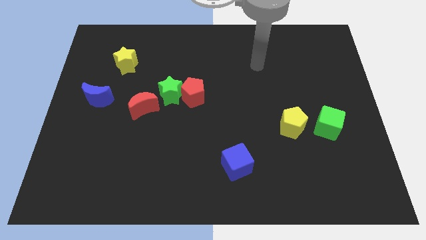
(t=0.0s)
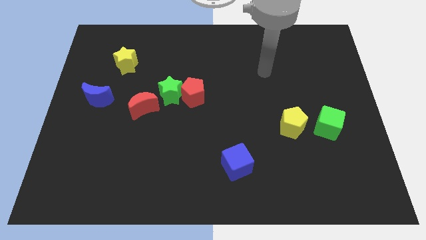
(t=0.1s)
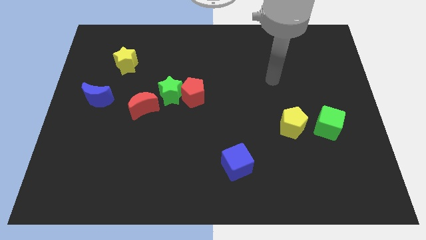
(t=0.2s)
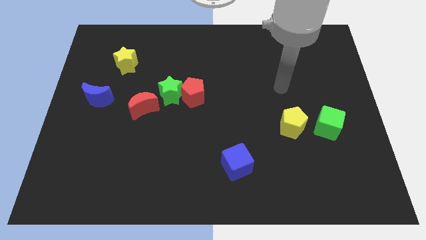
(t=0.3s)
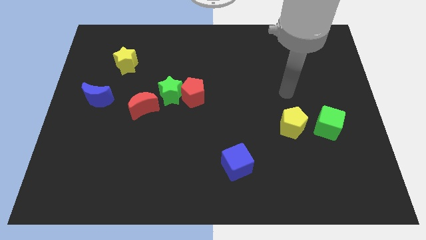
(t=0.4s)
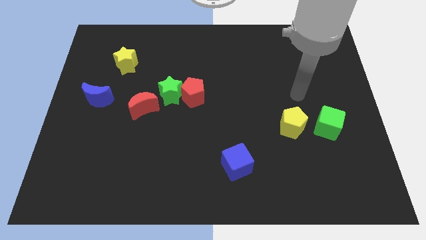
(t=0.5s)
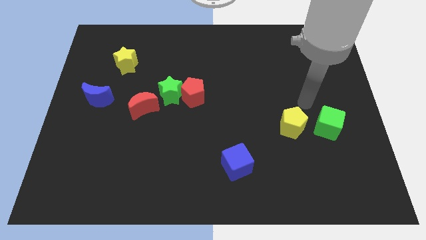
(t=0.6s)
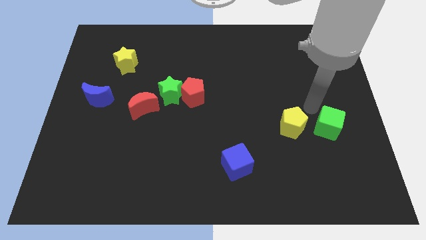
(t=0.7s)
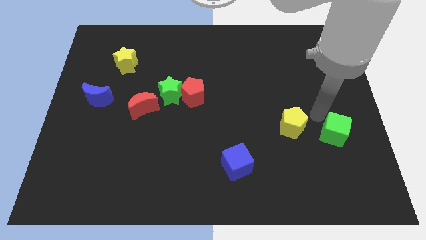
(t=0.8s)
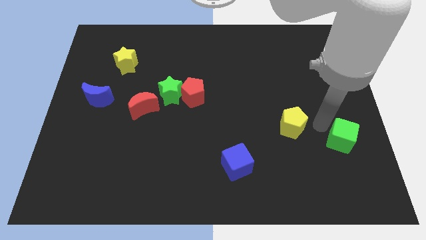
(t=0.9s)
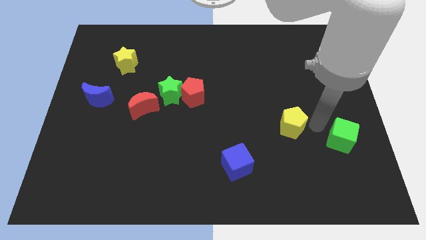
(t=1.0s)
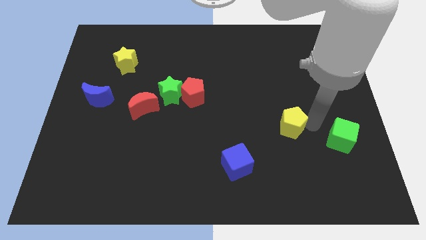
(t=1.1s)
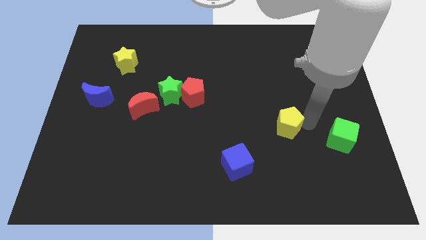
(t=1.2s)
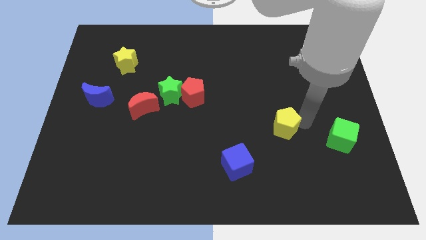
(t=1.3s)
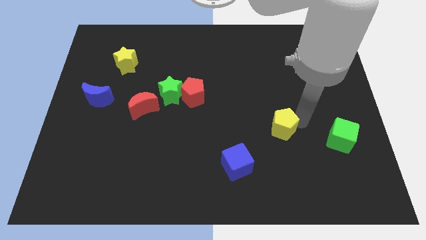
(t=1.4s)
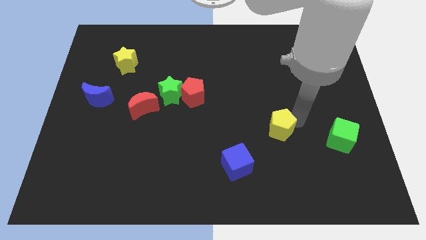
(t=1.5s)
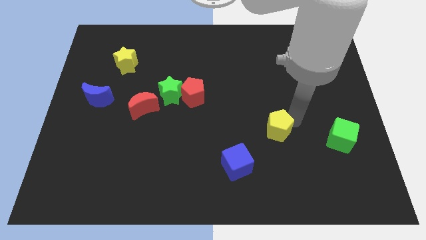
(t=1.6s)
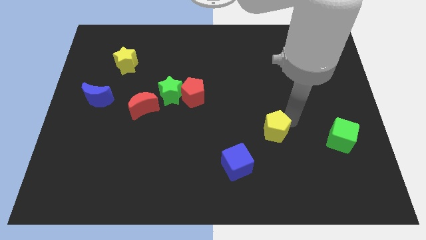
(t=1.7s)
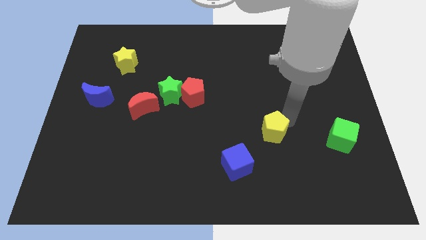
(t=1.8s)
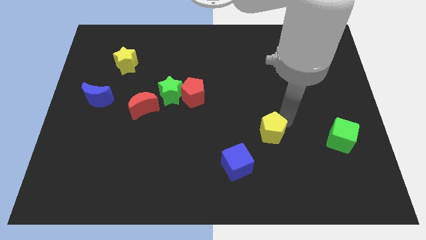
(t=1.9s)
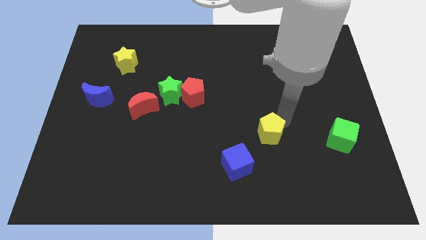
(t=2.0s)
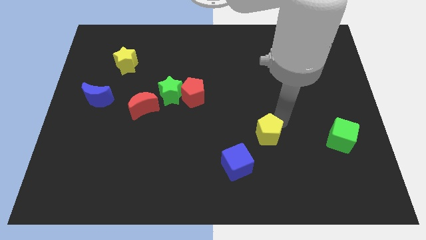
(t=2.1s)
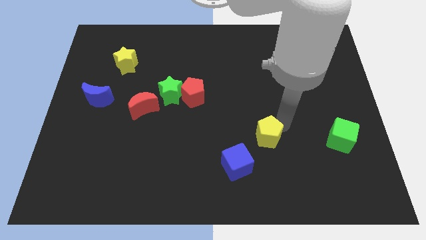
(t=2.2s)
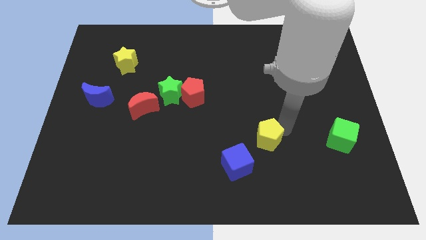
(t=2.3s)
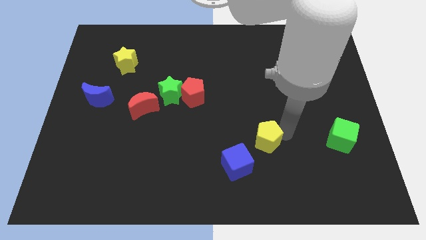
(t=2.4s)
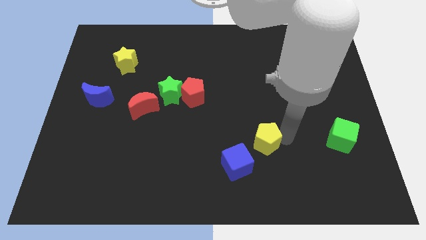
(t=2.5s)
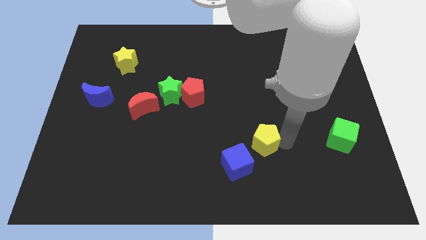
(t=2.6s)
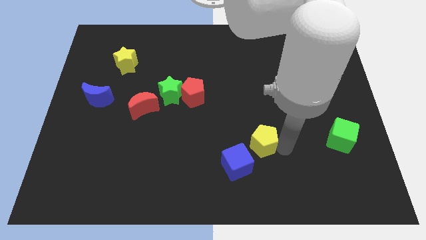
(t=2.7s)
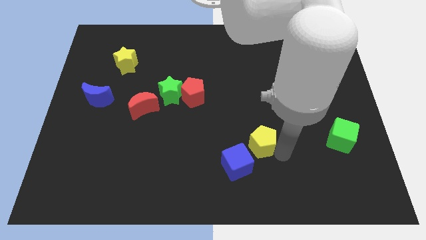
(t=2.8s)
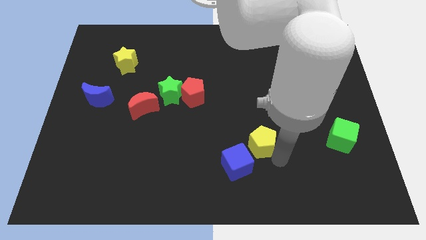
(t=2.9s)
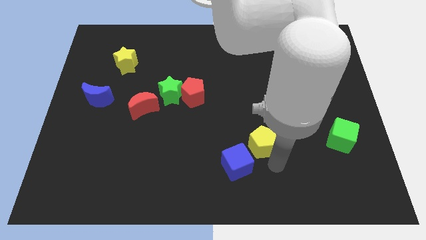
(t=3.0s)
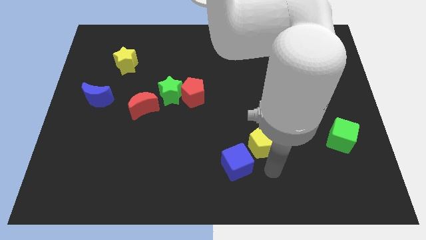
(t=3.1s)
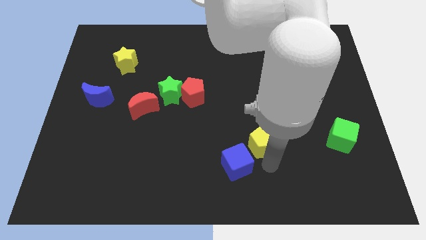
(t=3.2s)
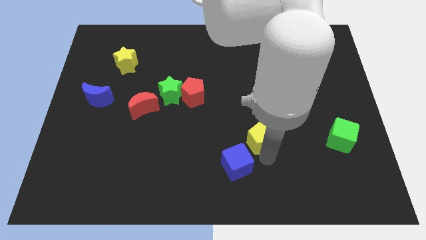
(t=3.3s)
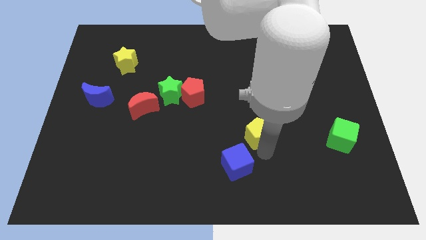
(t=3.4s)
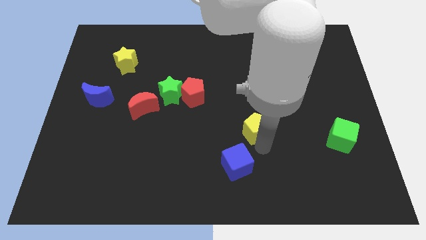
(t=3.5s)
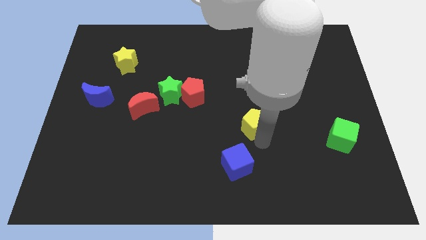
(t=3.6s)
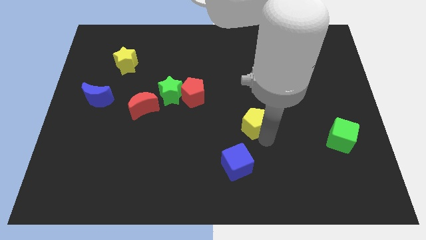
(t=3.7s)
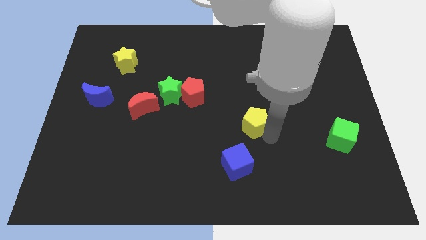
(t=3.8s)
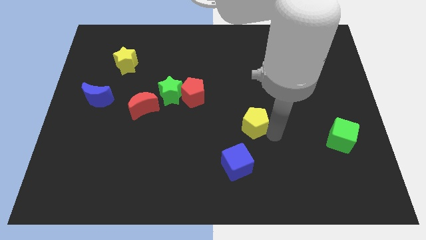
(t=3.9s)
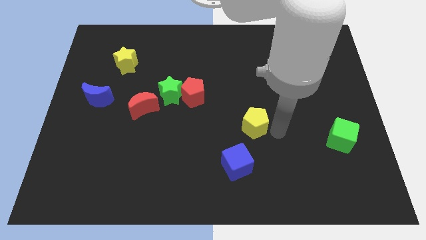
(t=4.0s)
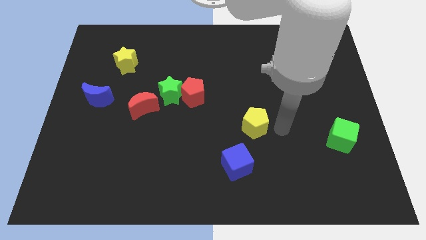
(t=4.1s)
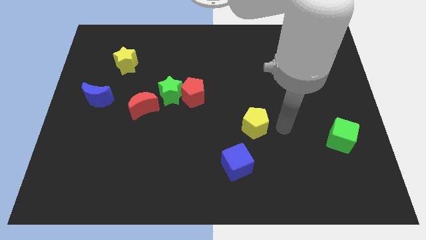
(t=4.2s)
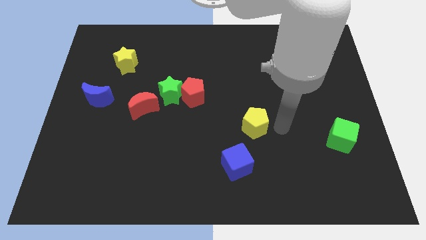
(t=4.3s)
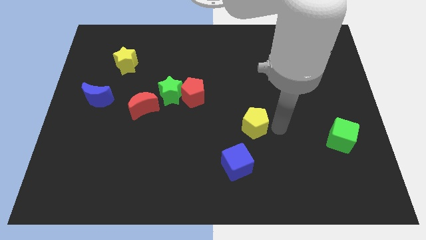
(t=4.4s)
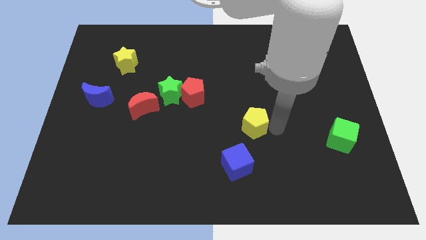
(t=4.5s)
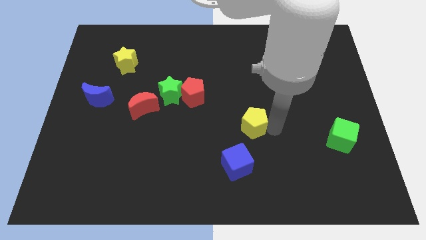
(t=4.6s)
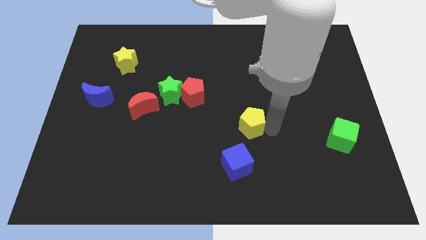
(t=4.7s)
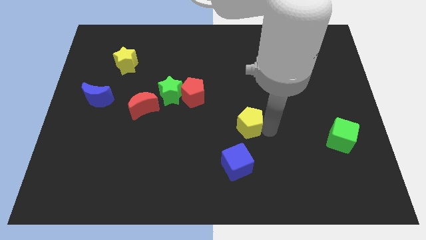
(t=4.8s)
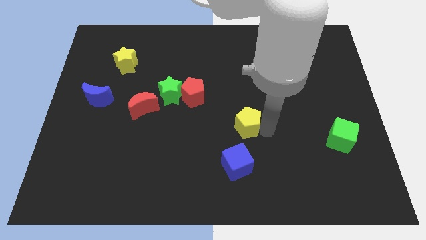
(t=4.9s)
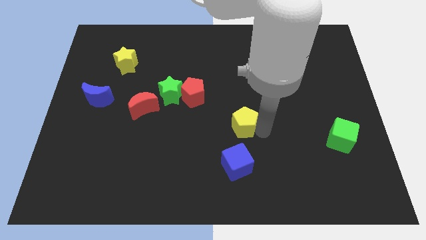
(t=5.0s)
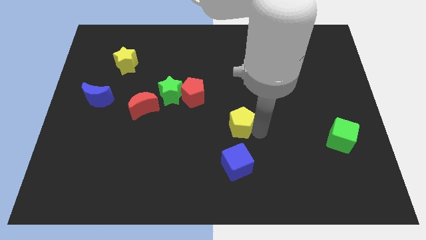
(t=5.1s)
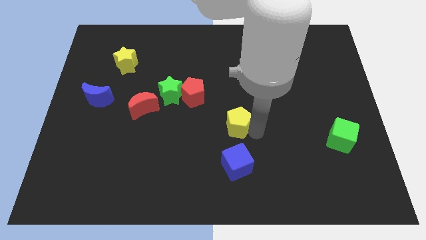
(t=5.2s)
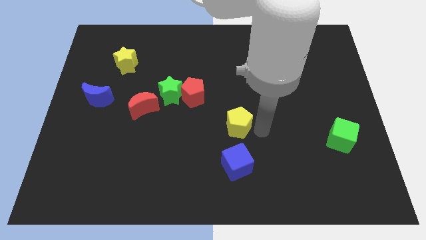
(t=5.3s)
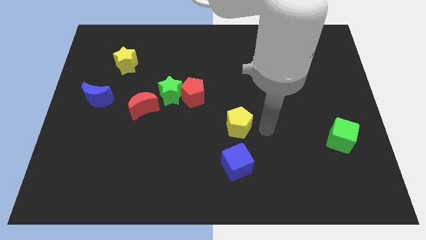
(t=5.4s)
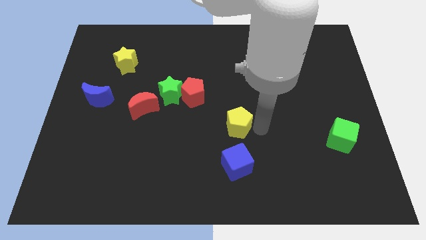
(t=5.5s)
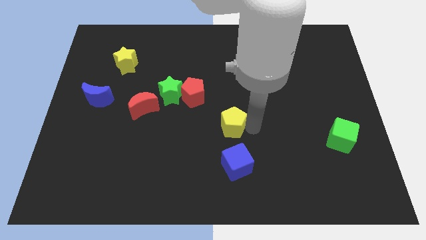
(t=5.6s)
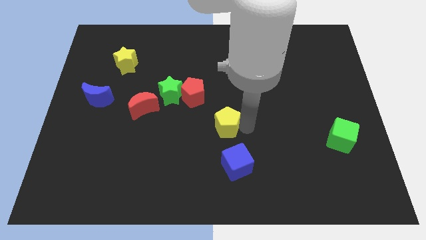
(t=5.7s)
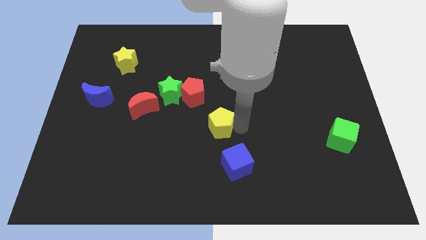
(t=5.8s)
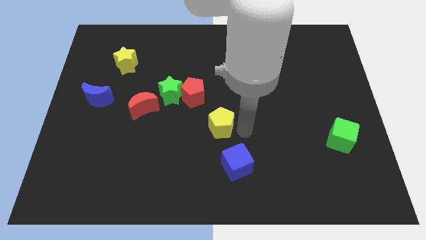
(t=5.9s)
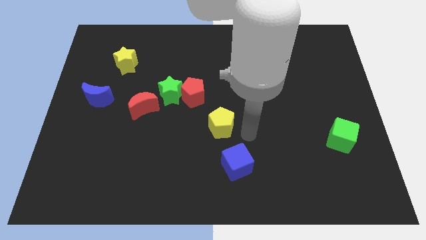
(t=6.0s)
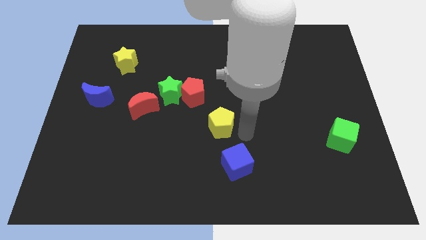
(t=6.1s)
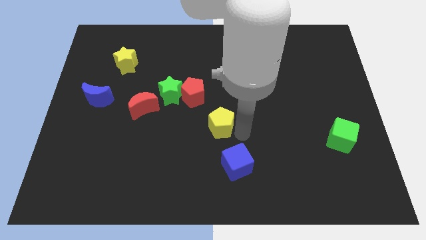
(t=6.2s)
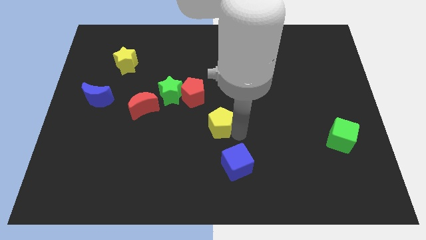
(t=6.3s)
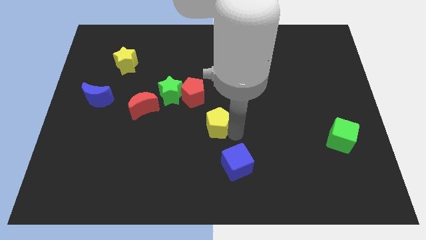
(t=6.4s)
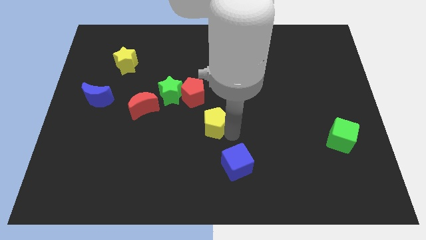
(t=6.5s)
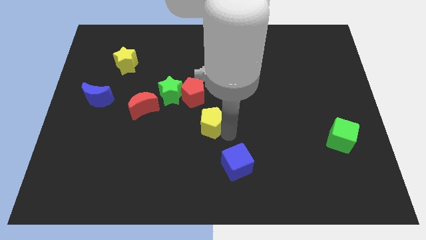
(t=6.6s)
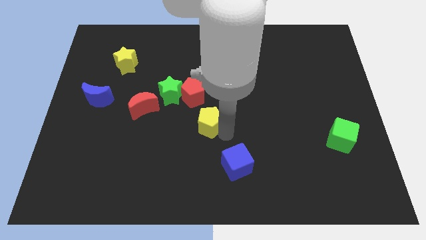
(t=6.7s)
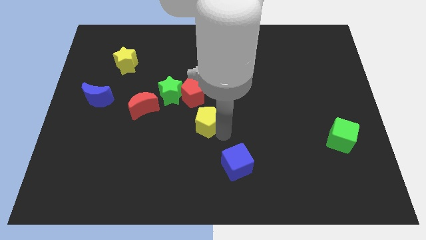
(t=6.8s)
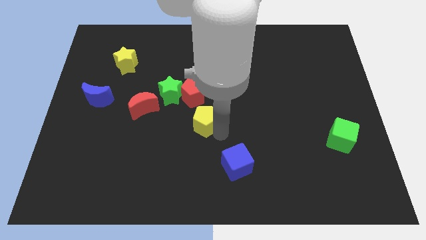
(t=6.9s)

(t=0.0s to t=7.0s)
push the yellow pentagon left

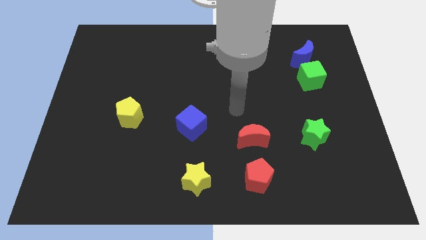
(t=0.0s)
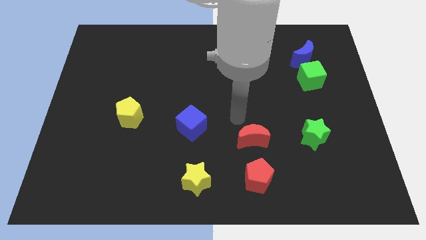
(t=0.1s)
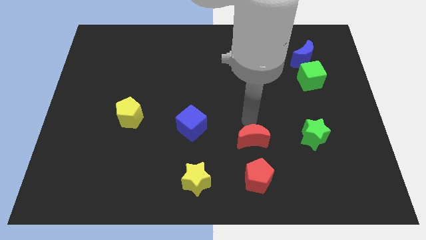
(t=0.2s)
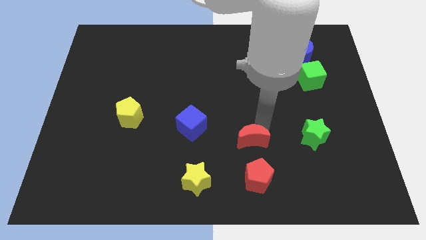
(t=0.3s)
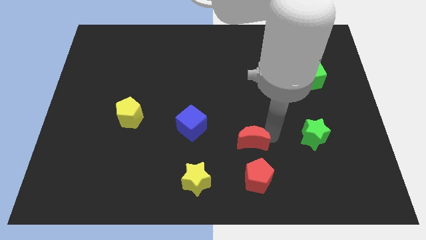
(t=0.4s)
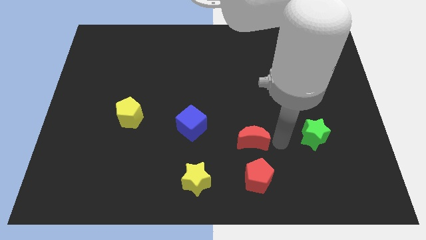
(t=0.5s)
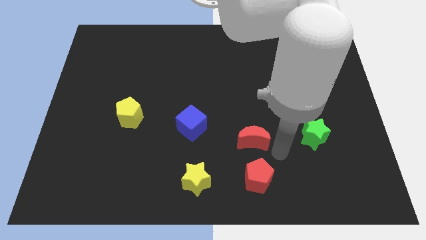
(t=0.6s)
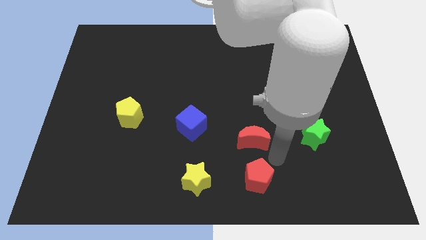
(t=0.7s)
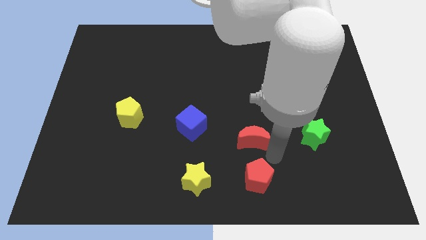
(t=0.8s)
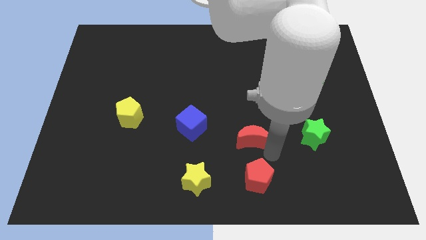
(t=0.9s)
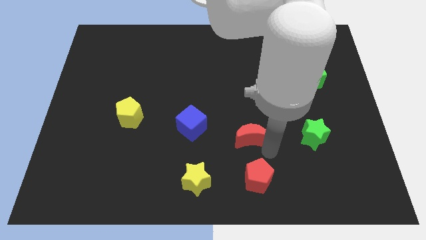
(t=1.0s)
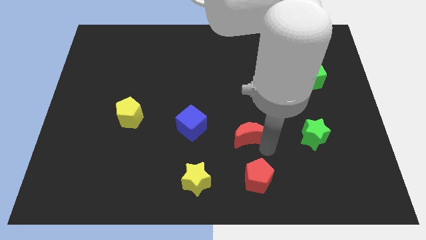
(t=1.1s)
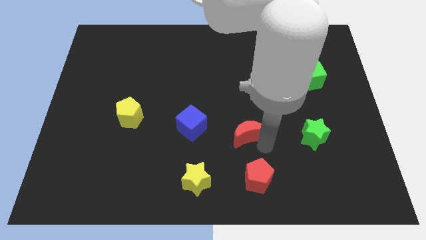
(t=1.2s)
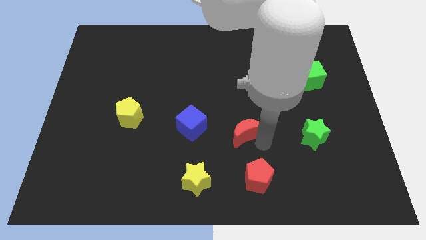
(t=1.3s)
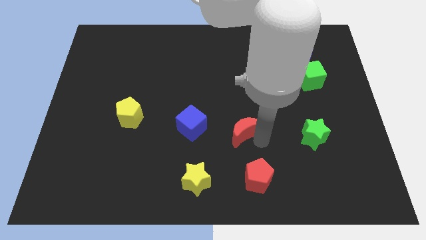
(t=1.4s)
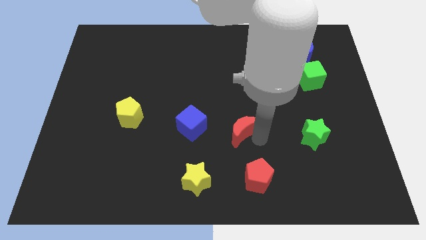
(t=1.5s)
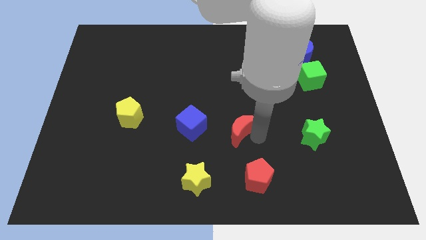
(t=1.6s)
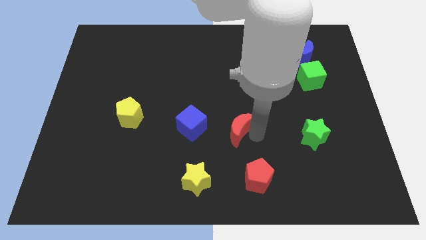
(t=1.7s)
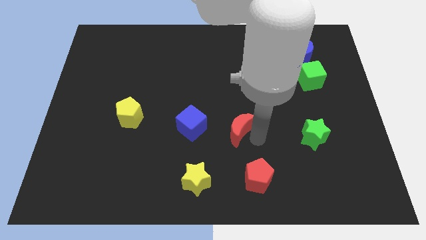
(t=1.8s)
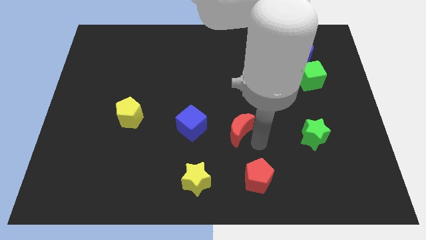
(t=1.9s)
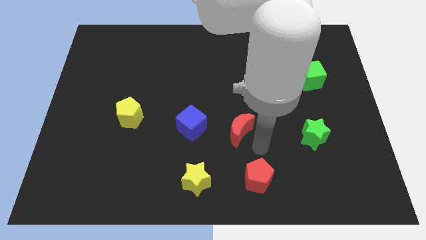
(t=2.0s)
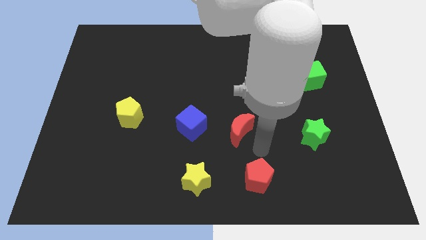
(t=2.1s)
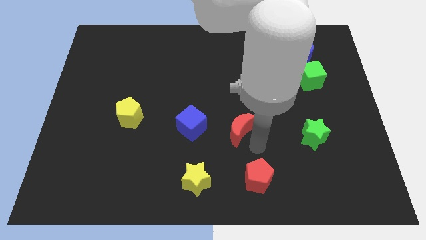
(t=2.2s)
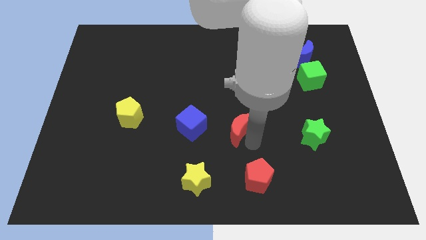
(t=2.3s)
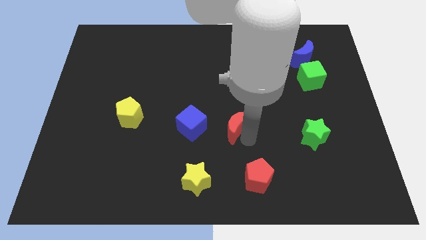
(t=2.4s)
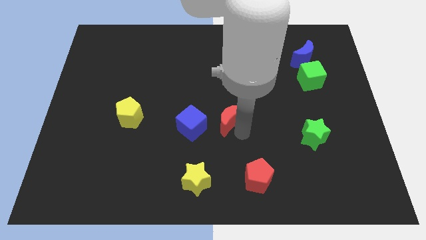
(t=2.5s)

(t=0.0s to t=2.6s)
push the red moon a little bit up and then left
